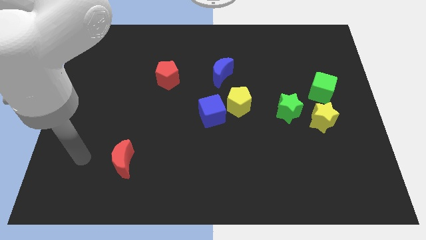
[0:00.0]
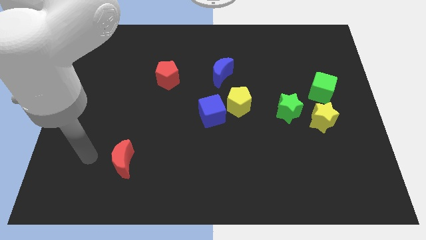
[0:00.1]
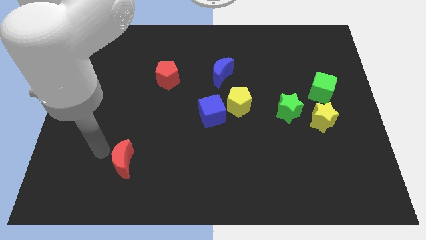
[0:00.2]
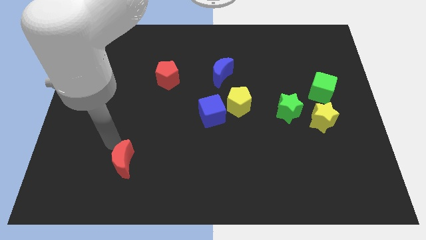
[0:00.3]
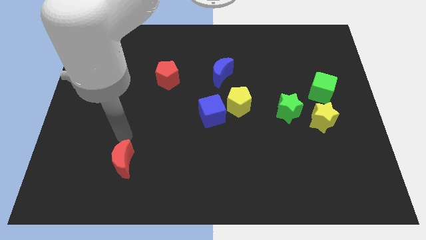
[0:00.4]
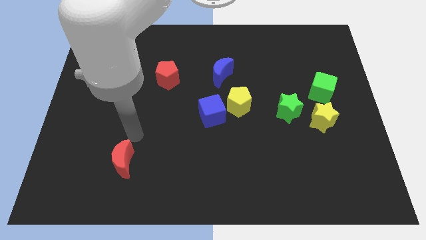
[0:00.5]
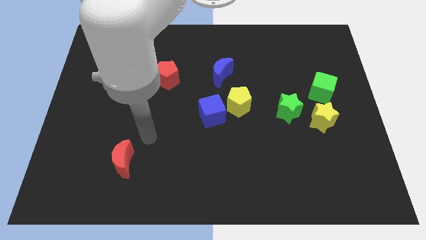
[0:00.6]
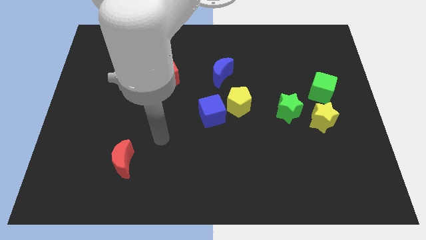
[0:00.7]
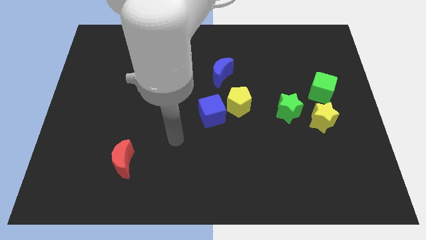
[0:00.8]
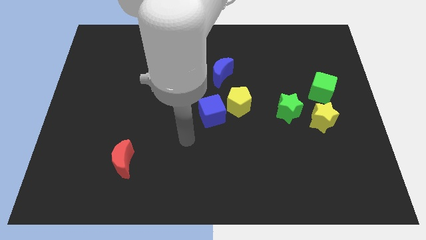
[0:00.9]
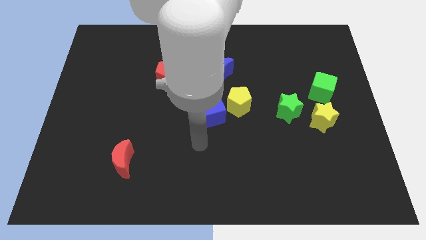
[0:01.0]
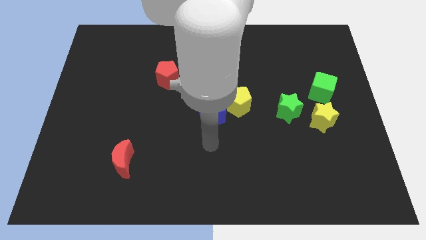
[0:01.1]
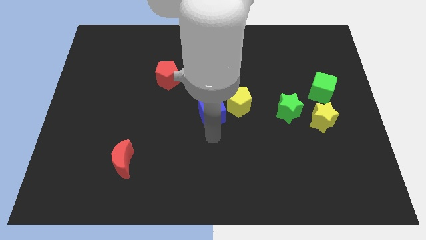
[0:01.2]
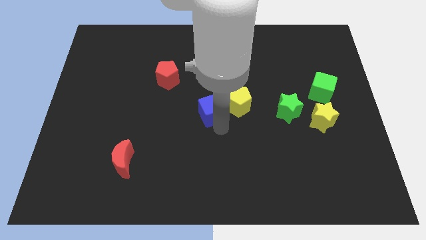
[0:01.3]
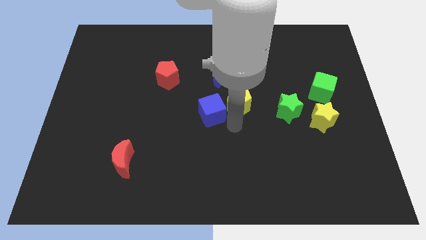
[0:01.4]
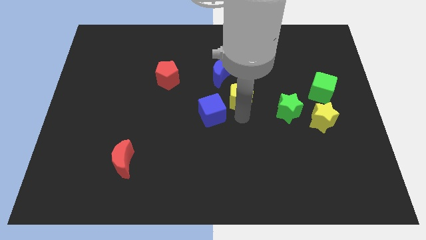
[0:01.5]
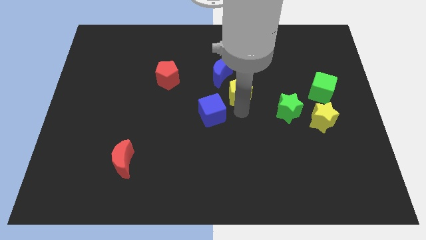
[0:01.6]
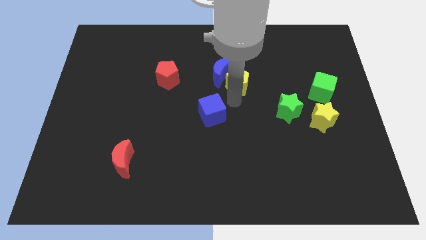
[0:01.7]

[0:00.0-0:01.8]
pull the blue cube apart from the yellow pentagon

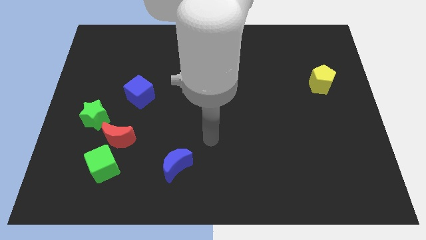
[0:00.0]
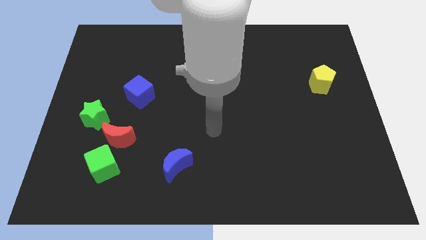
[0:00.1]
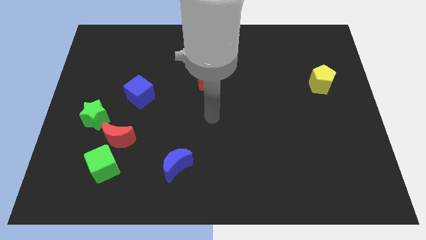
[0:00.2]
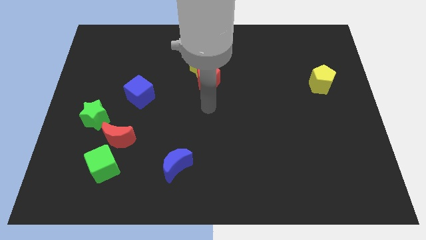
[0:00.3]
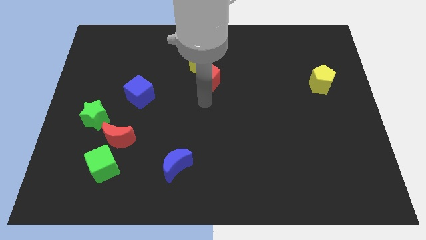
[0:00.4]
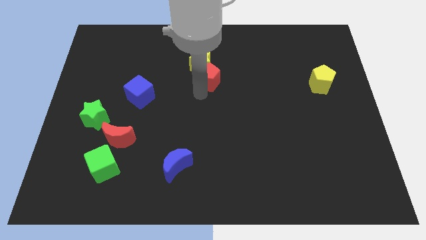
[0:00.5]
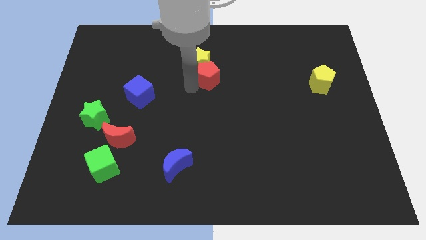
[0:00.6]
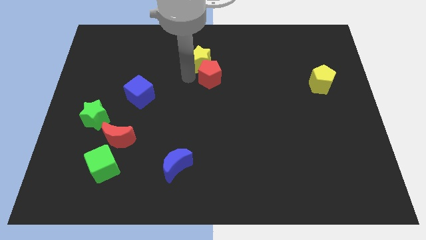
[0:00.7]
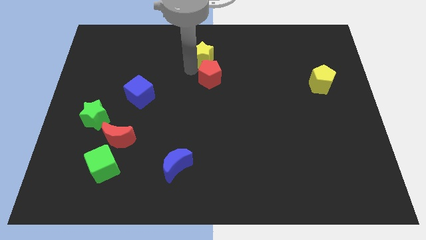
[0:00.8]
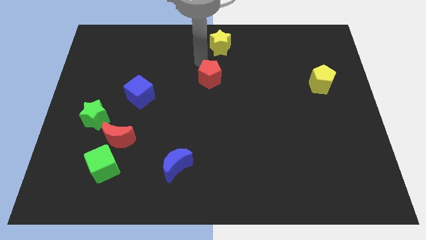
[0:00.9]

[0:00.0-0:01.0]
separate the red pentagon from the yellow star

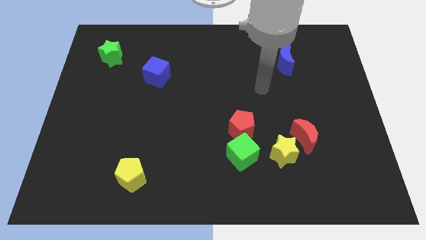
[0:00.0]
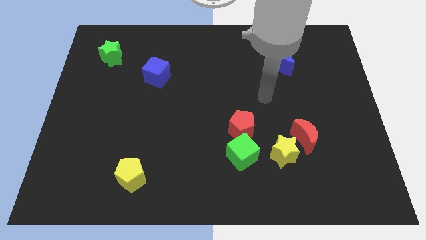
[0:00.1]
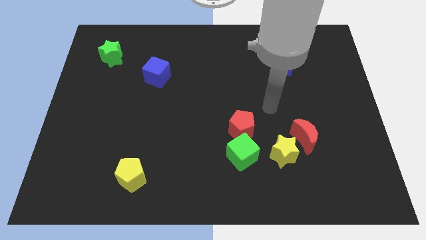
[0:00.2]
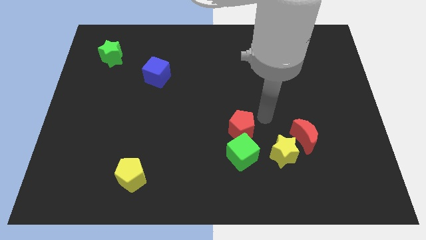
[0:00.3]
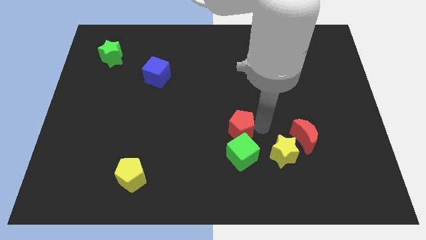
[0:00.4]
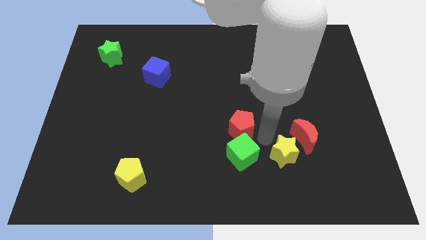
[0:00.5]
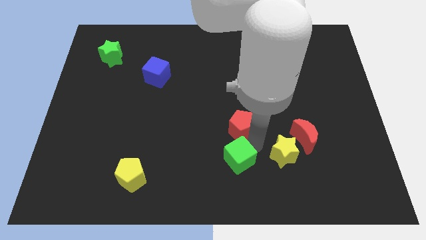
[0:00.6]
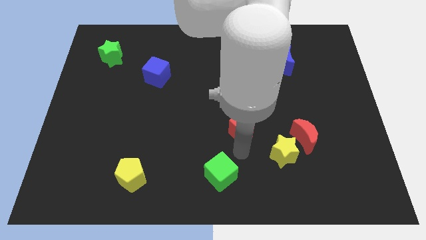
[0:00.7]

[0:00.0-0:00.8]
pull the red pentagon apart from the green cube

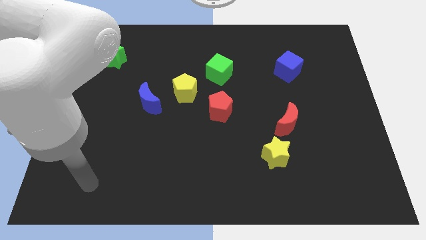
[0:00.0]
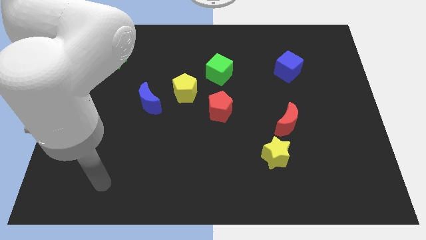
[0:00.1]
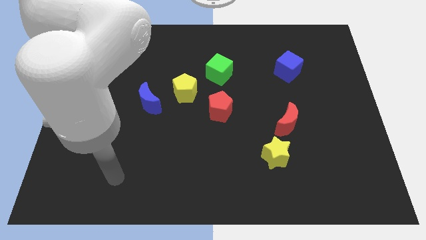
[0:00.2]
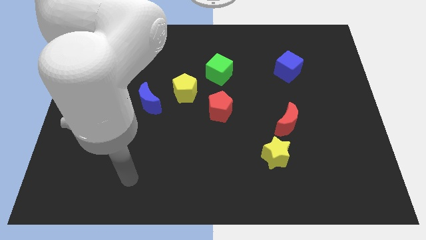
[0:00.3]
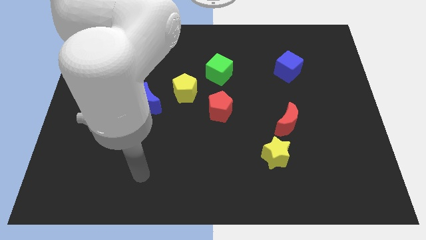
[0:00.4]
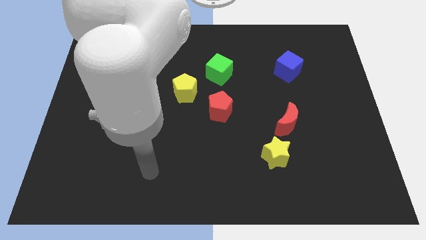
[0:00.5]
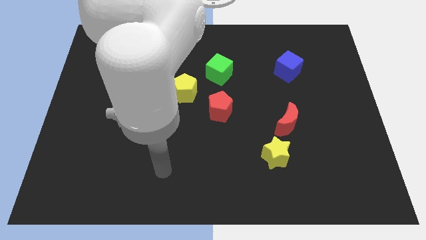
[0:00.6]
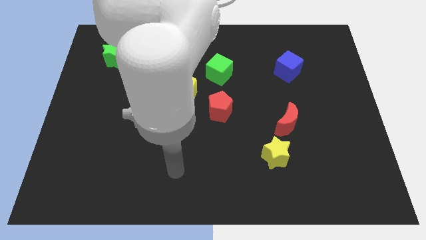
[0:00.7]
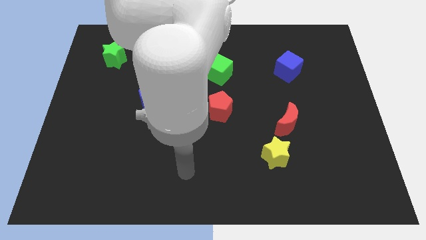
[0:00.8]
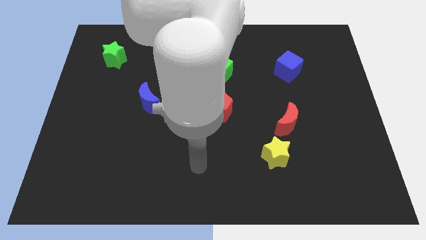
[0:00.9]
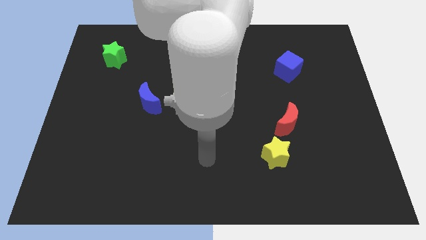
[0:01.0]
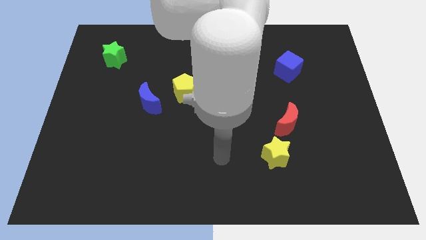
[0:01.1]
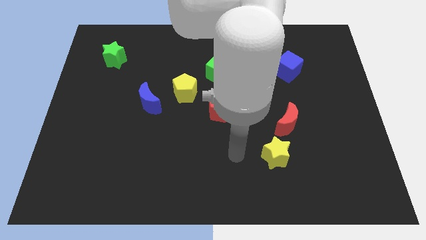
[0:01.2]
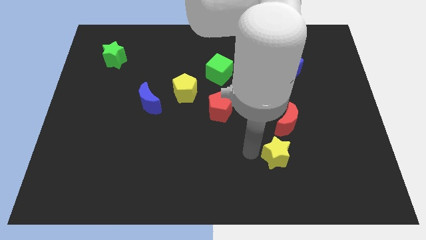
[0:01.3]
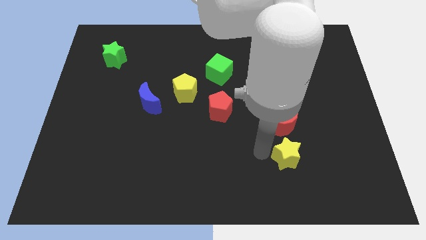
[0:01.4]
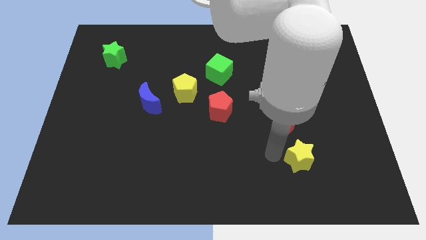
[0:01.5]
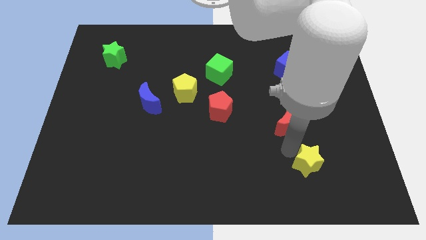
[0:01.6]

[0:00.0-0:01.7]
move the red moon away from the yellow star

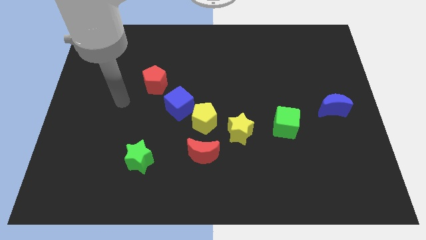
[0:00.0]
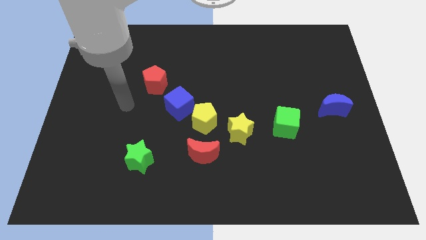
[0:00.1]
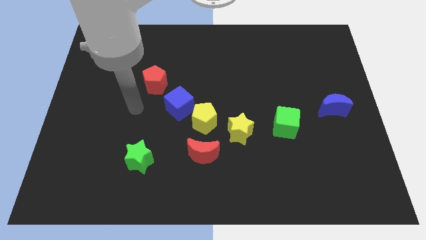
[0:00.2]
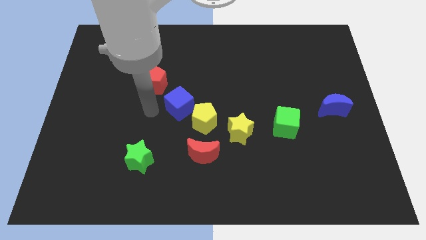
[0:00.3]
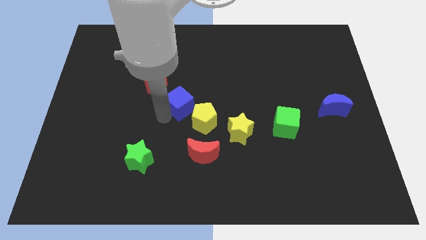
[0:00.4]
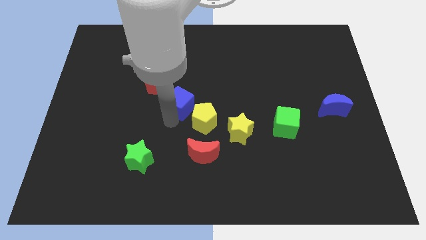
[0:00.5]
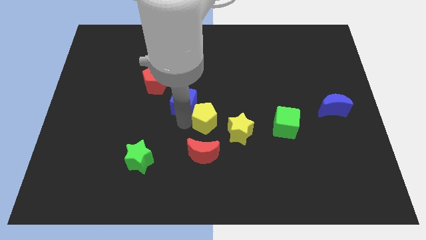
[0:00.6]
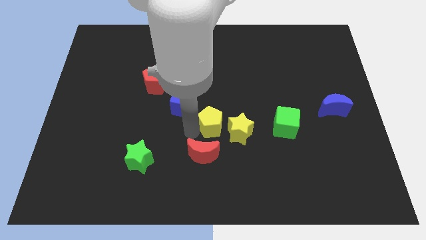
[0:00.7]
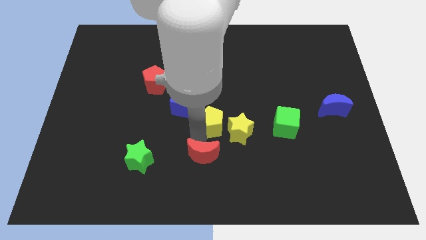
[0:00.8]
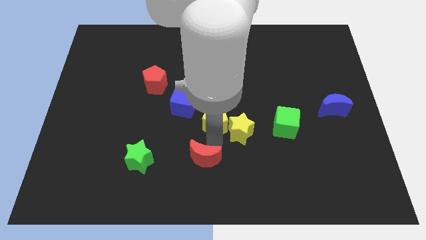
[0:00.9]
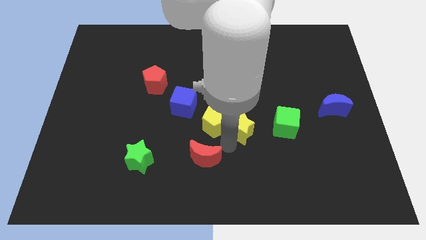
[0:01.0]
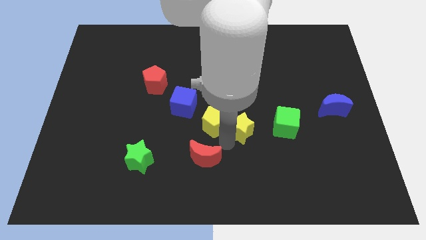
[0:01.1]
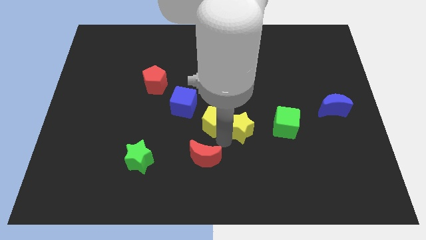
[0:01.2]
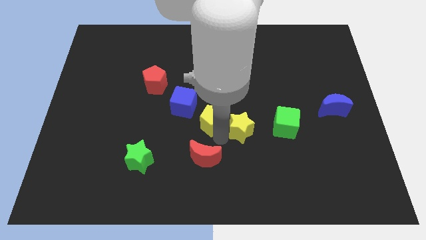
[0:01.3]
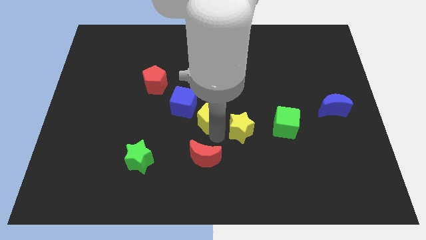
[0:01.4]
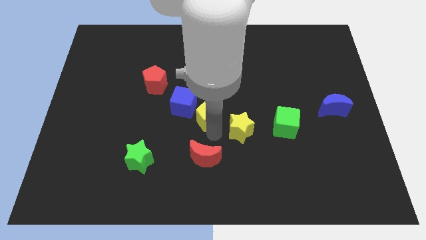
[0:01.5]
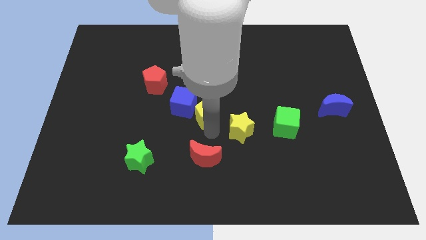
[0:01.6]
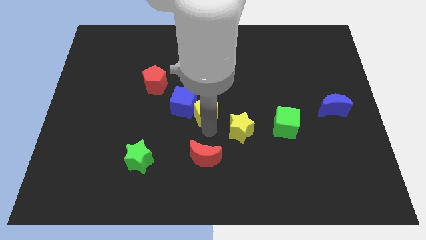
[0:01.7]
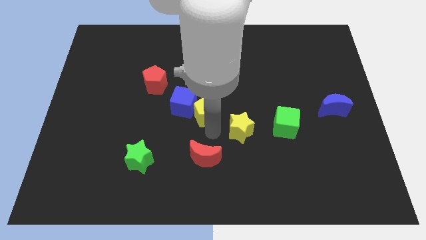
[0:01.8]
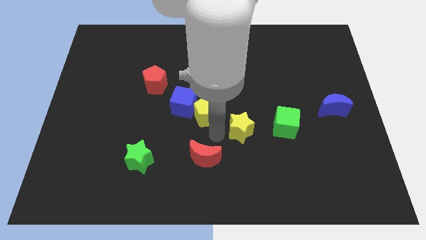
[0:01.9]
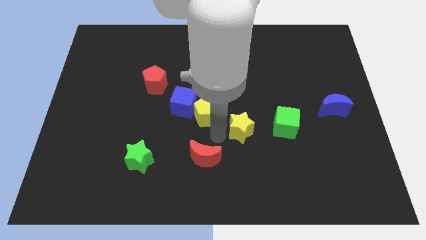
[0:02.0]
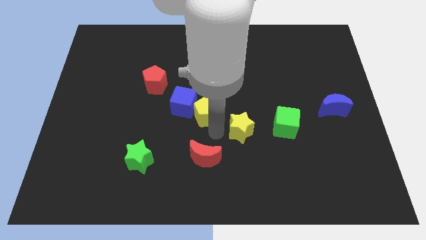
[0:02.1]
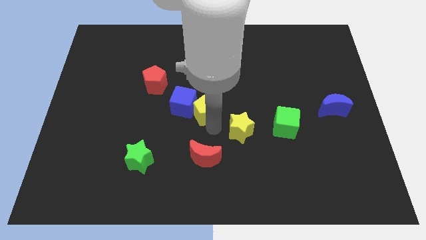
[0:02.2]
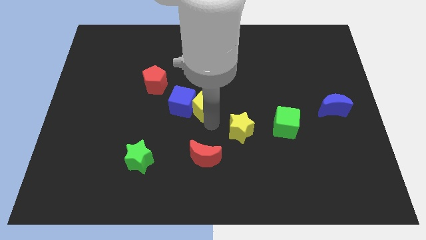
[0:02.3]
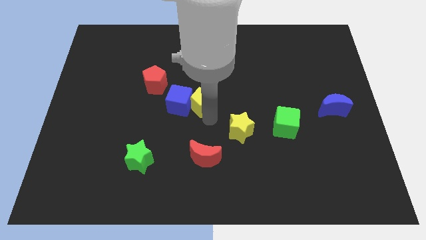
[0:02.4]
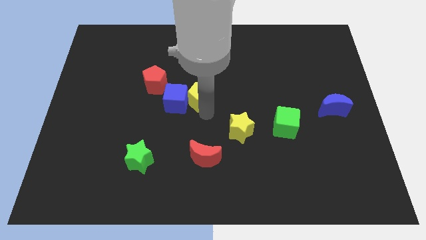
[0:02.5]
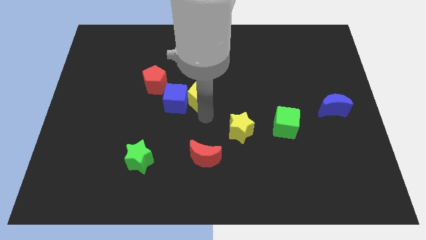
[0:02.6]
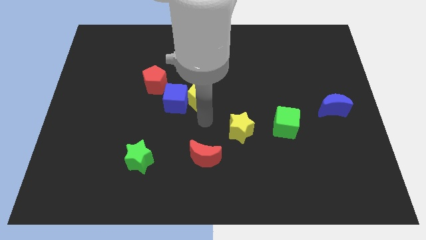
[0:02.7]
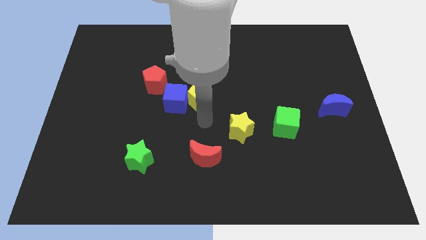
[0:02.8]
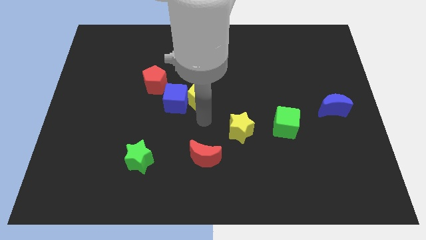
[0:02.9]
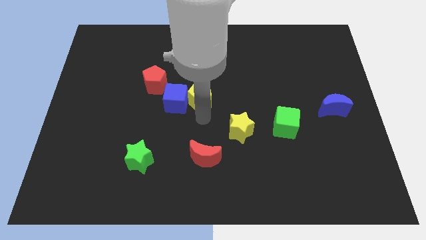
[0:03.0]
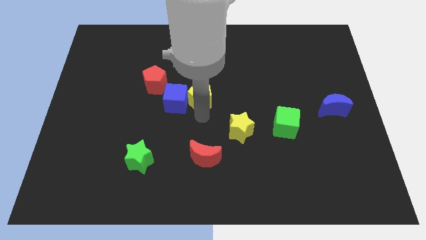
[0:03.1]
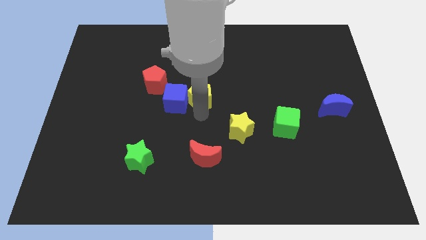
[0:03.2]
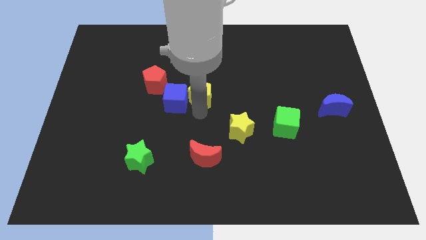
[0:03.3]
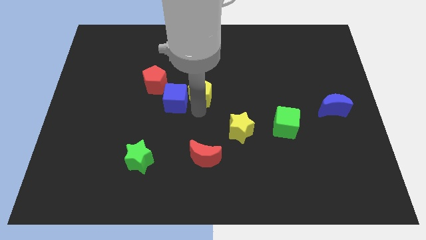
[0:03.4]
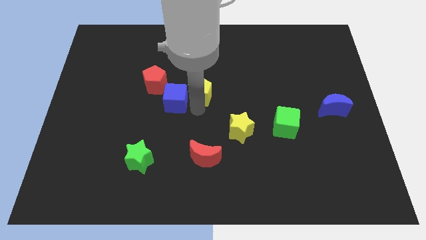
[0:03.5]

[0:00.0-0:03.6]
pull the yellow pentagon apart from the blue cube, yellow star, and red moon

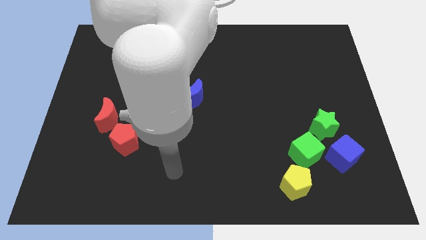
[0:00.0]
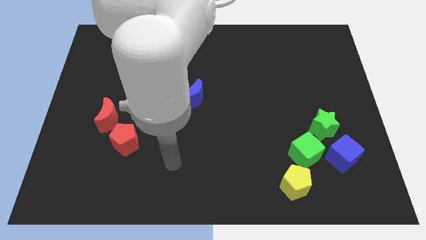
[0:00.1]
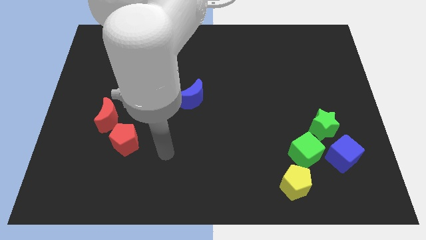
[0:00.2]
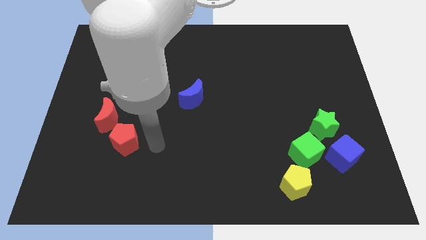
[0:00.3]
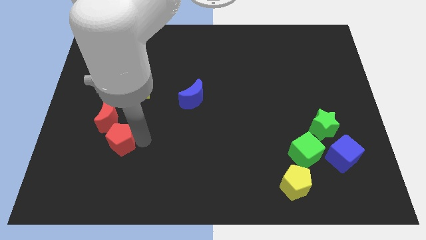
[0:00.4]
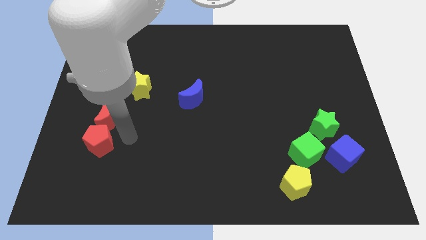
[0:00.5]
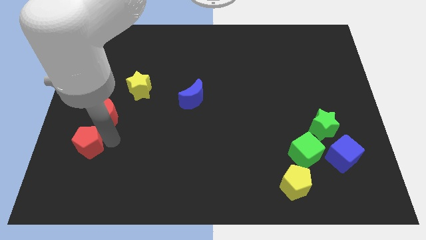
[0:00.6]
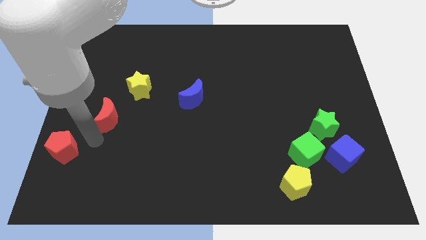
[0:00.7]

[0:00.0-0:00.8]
pull the red moon apart from the red pentagon
